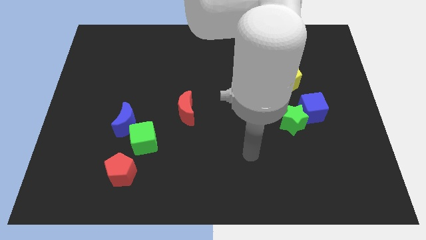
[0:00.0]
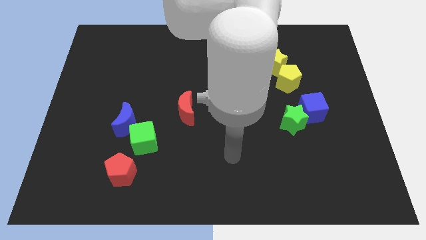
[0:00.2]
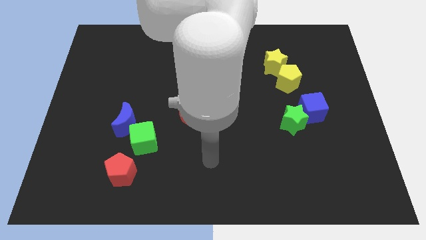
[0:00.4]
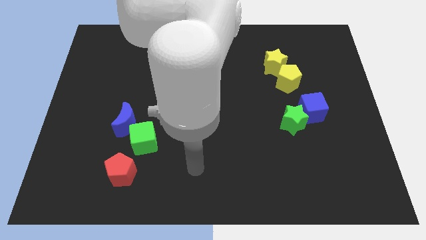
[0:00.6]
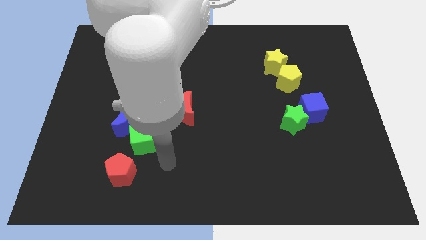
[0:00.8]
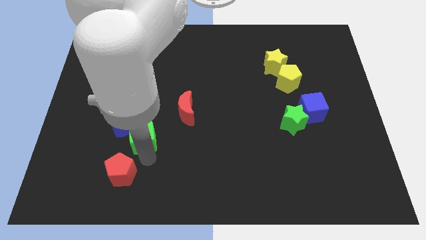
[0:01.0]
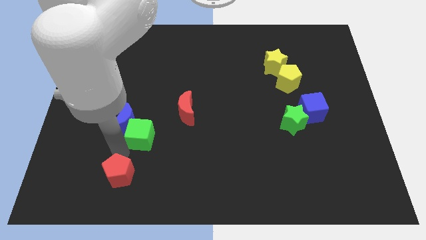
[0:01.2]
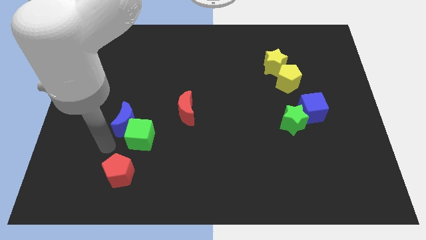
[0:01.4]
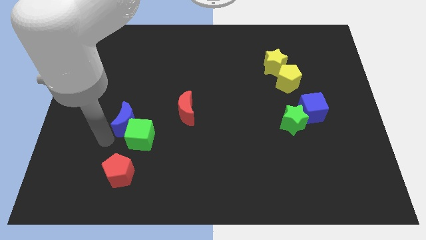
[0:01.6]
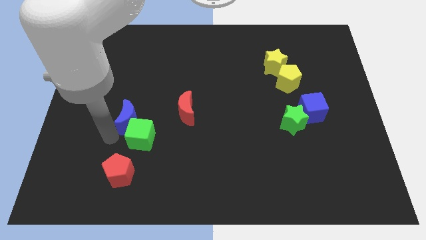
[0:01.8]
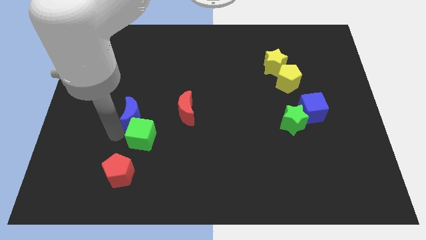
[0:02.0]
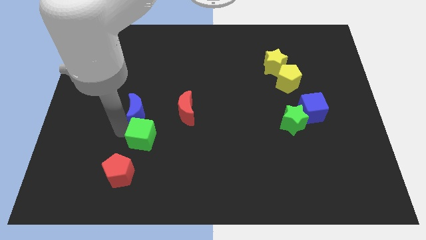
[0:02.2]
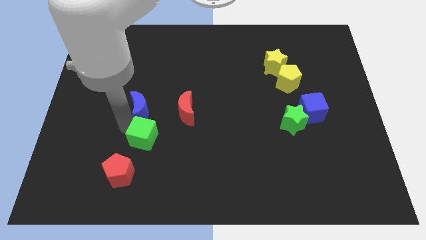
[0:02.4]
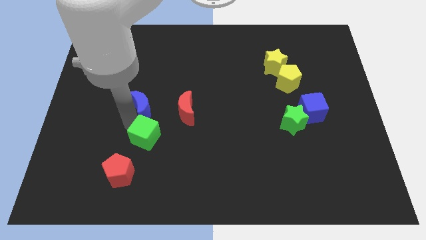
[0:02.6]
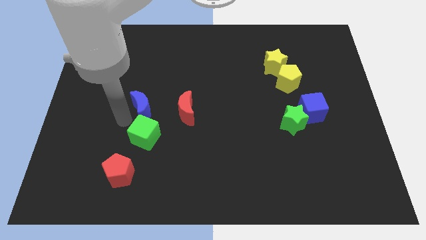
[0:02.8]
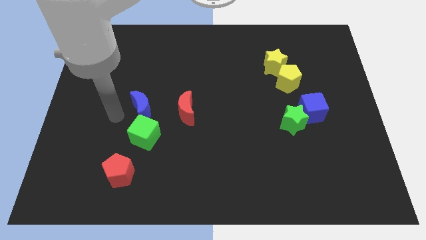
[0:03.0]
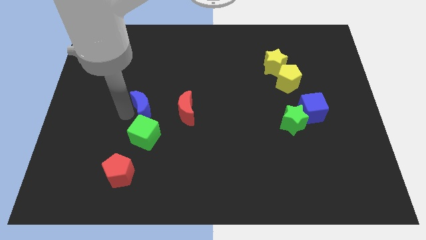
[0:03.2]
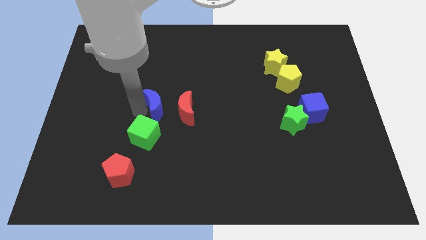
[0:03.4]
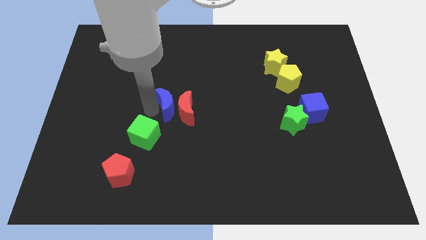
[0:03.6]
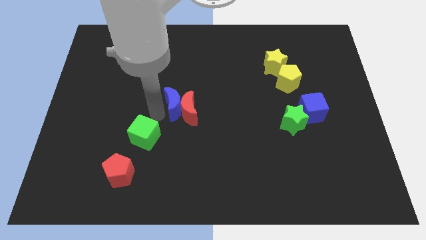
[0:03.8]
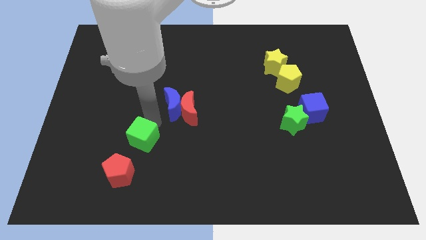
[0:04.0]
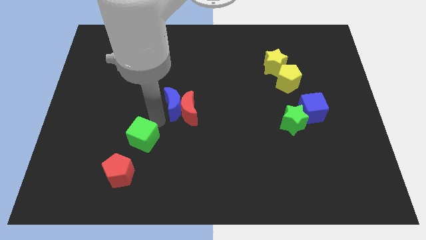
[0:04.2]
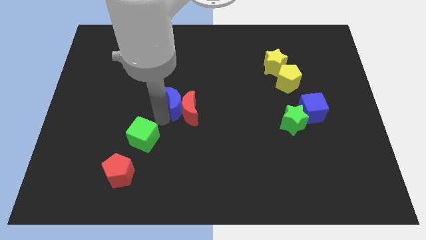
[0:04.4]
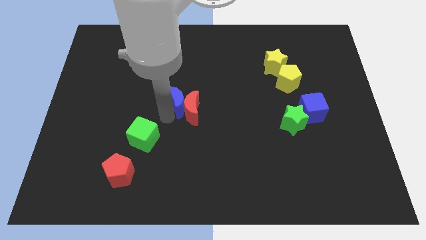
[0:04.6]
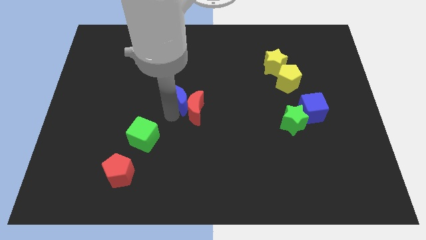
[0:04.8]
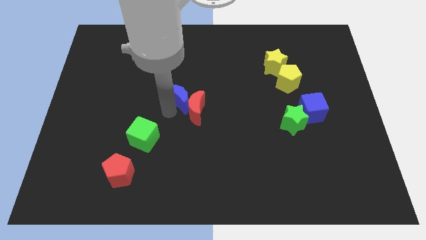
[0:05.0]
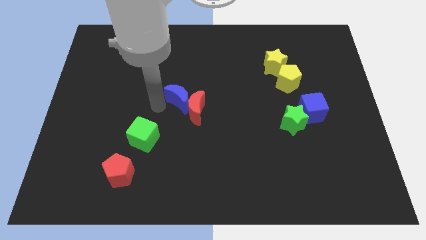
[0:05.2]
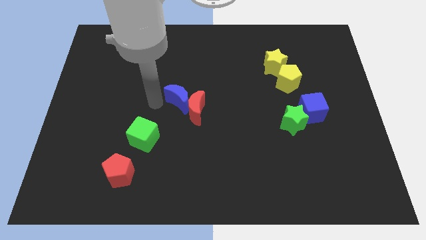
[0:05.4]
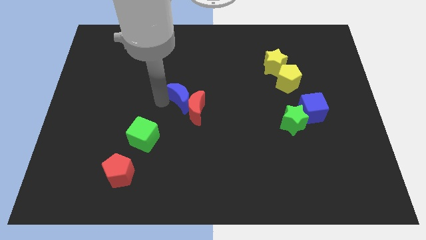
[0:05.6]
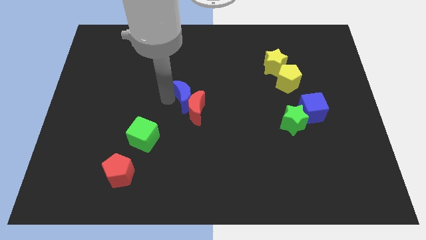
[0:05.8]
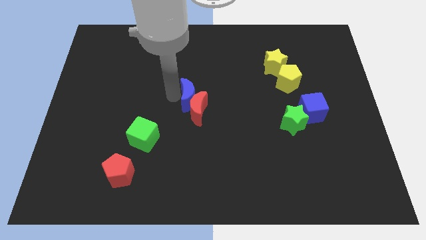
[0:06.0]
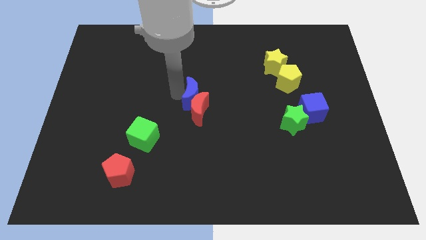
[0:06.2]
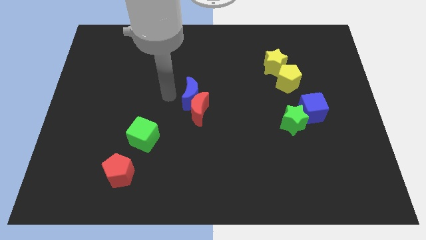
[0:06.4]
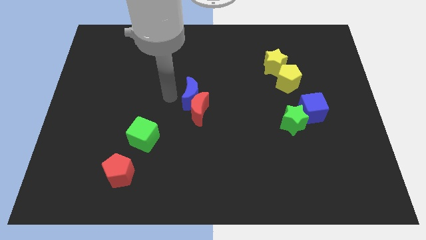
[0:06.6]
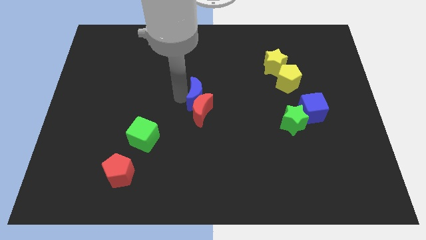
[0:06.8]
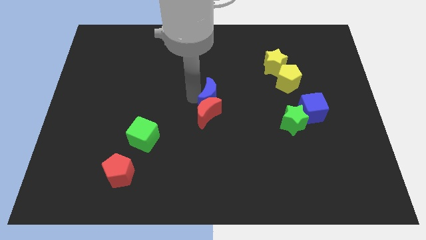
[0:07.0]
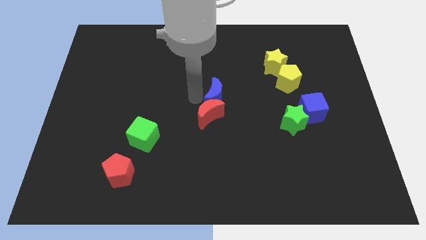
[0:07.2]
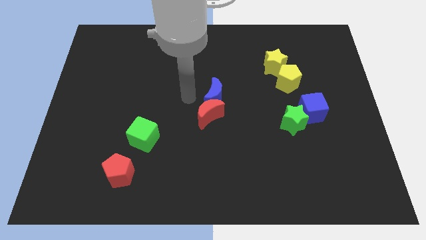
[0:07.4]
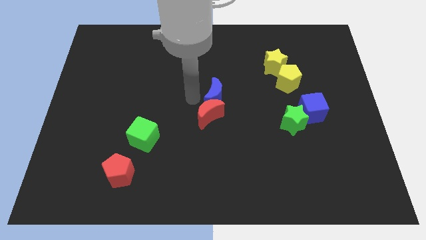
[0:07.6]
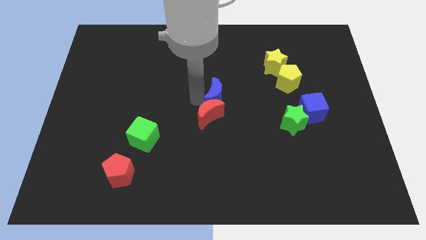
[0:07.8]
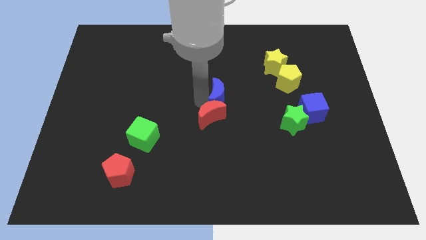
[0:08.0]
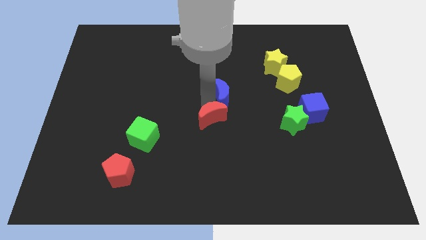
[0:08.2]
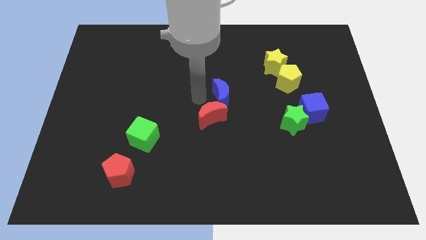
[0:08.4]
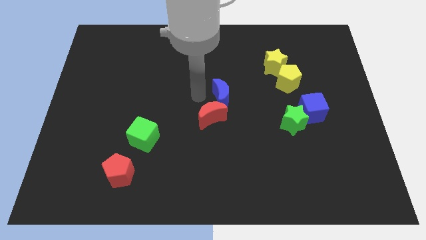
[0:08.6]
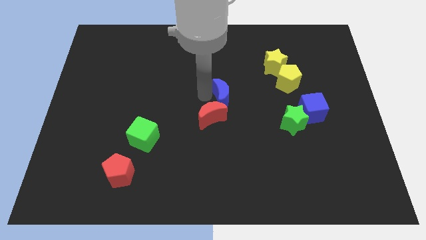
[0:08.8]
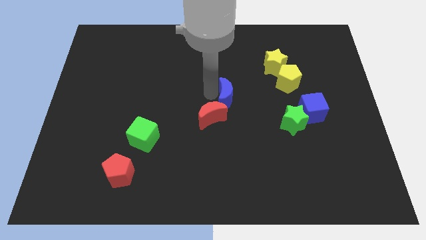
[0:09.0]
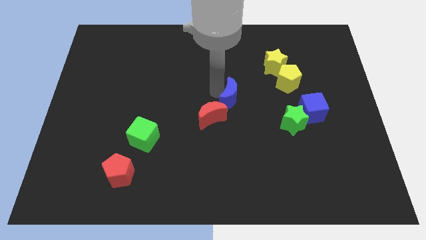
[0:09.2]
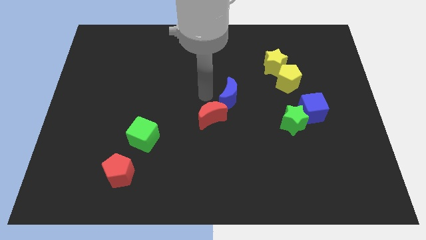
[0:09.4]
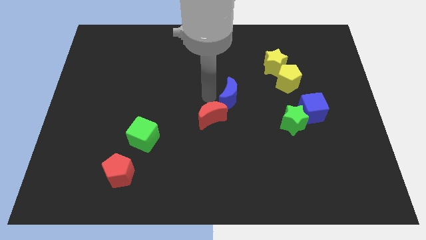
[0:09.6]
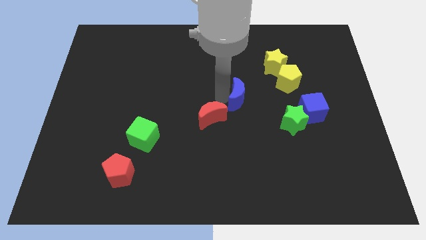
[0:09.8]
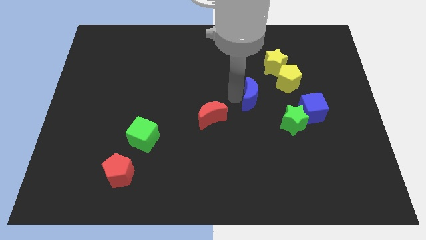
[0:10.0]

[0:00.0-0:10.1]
move the blue moon to the top left side of the green star

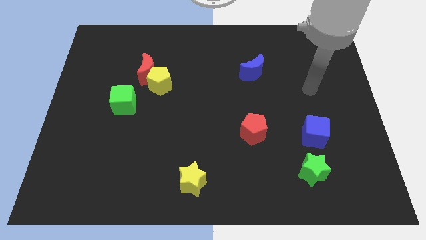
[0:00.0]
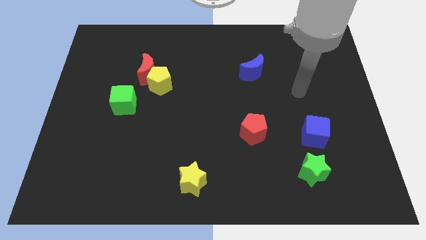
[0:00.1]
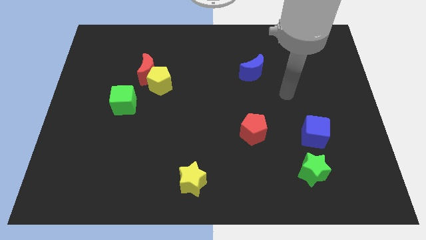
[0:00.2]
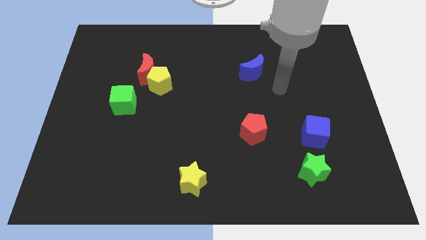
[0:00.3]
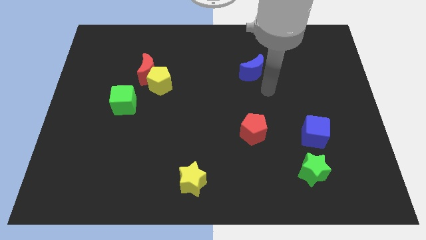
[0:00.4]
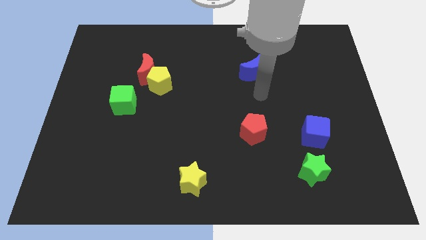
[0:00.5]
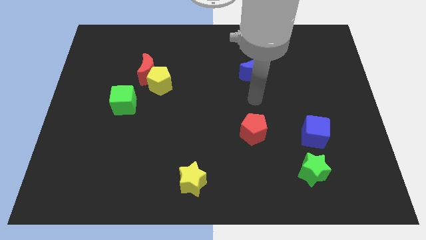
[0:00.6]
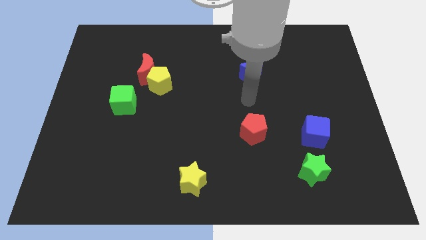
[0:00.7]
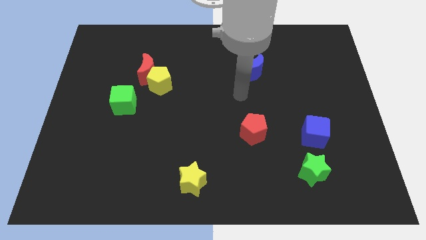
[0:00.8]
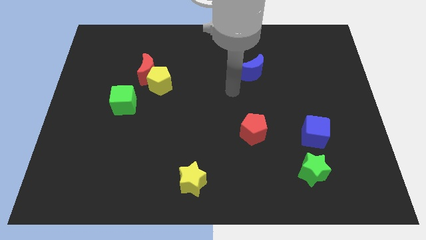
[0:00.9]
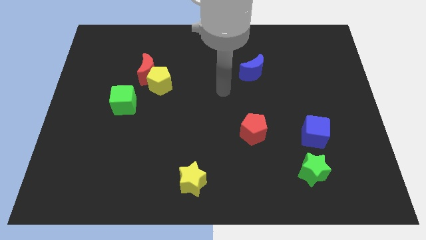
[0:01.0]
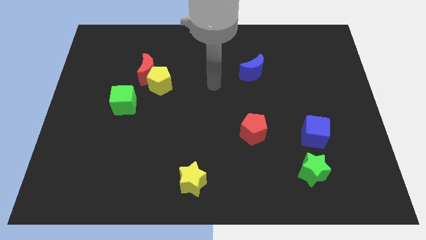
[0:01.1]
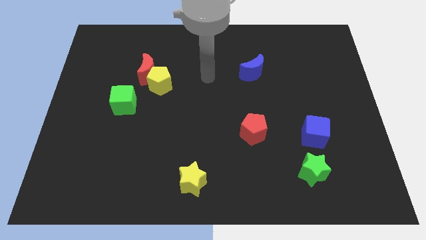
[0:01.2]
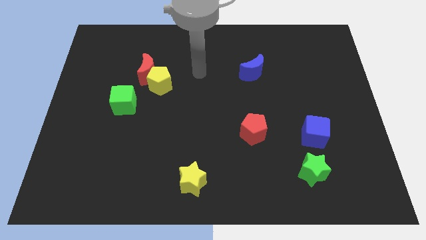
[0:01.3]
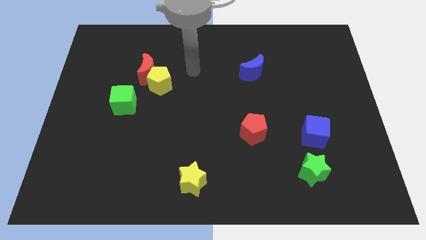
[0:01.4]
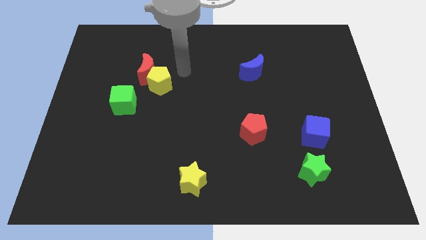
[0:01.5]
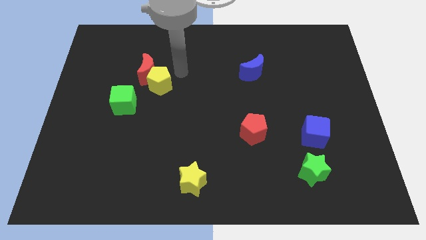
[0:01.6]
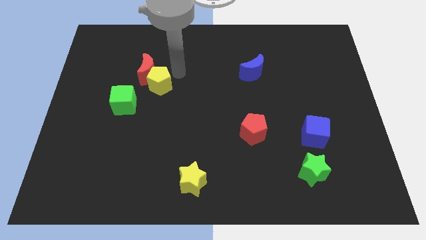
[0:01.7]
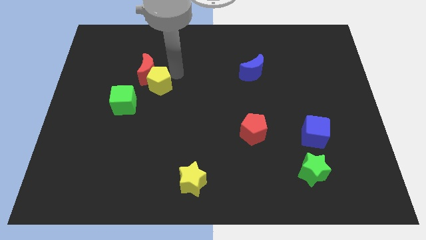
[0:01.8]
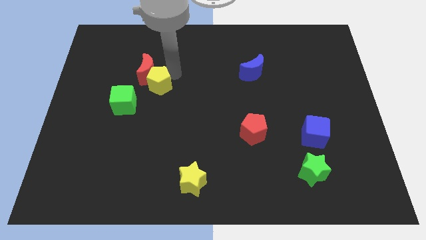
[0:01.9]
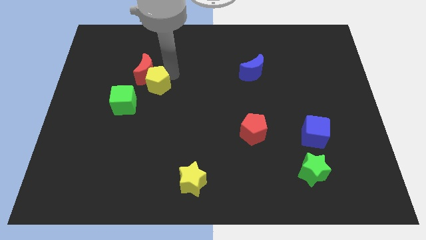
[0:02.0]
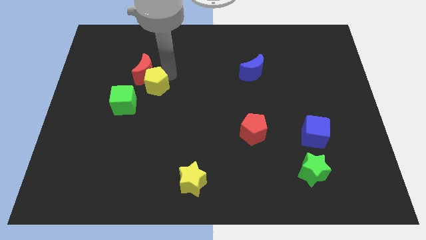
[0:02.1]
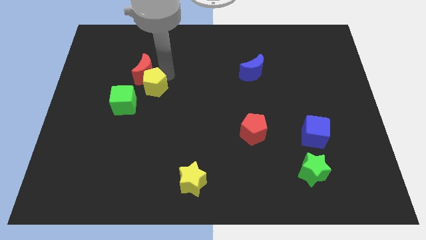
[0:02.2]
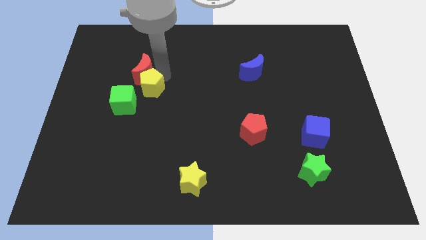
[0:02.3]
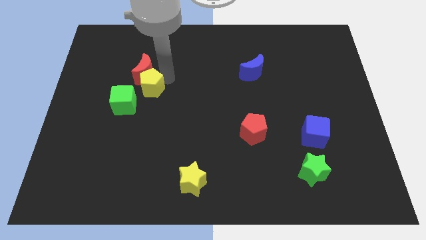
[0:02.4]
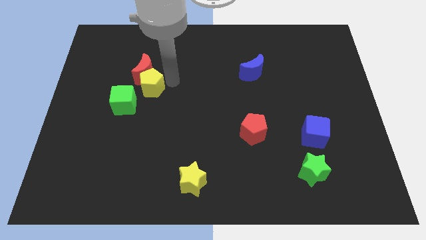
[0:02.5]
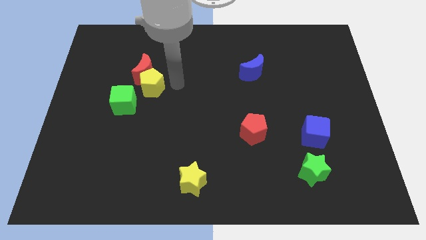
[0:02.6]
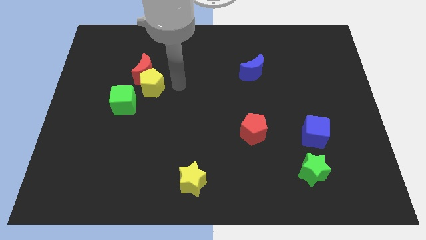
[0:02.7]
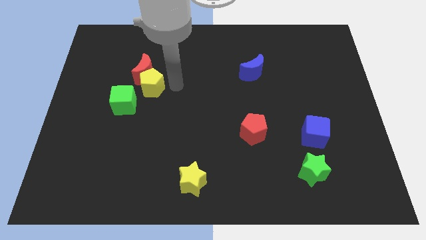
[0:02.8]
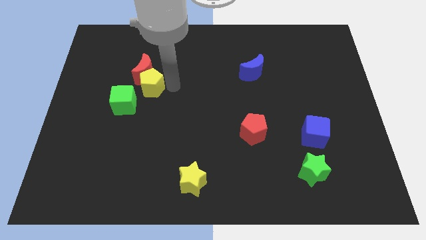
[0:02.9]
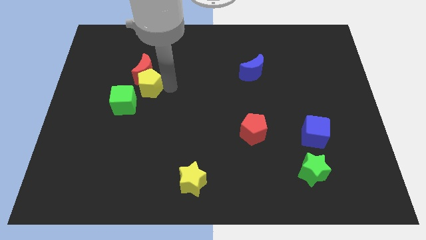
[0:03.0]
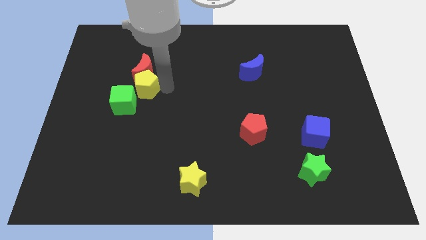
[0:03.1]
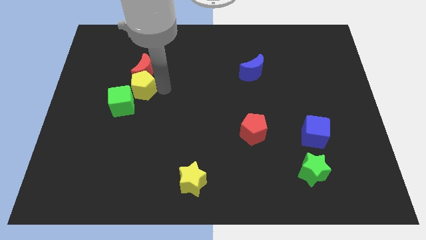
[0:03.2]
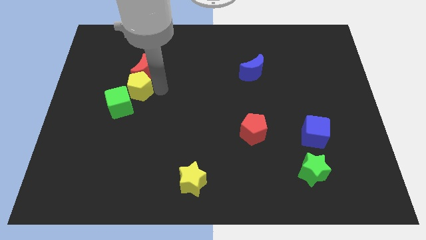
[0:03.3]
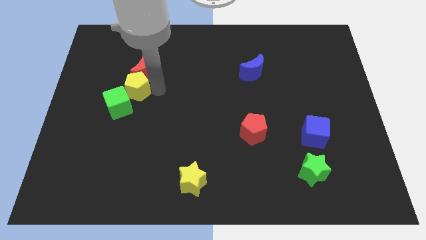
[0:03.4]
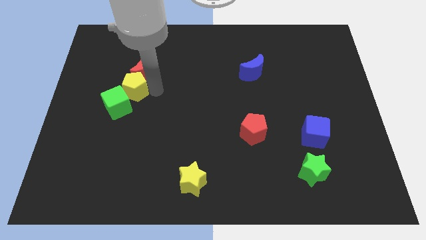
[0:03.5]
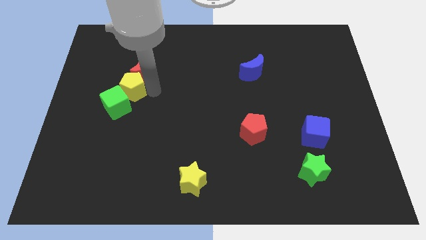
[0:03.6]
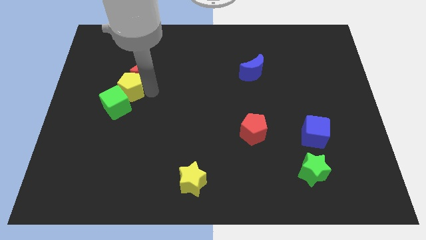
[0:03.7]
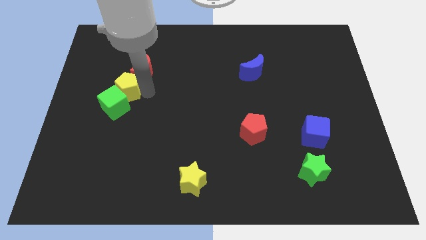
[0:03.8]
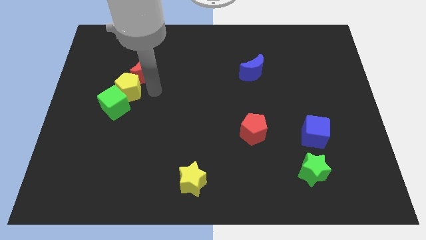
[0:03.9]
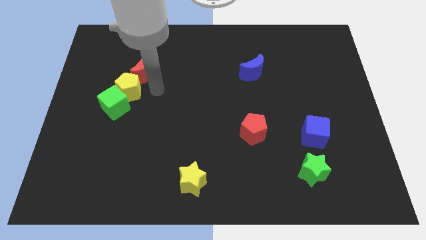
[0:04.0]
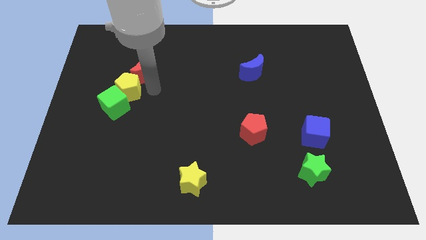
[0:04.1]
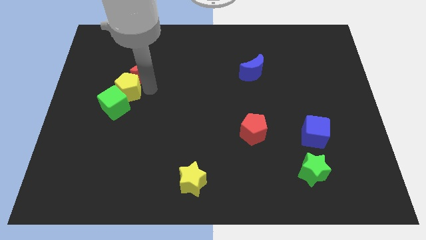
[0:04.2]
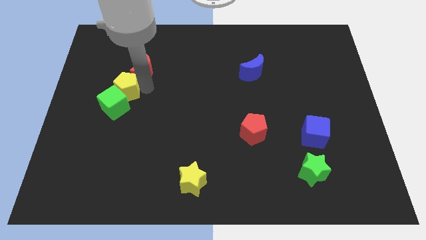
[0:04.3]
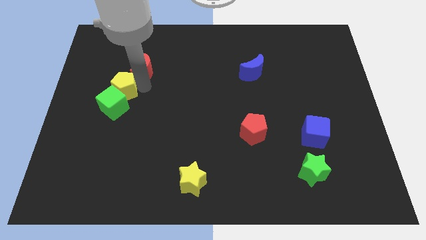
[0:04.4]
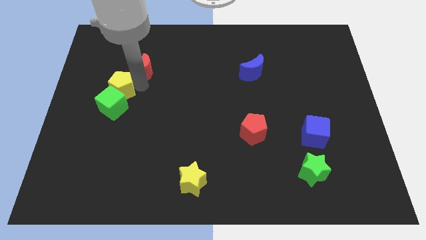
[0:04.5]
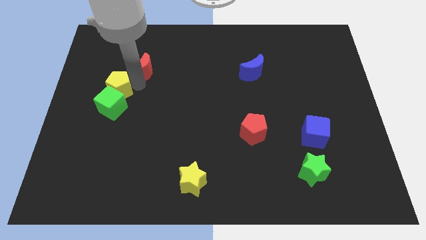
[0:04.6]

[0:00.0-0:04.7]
move the yellow pentagon to the top left of the green cube
